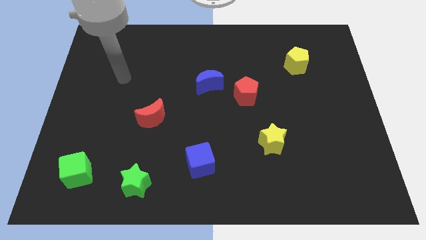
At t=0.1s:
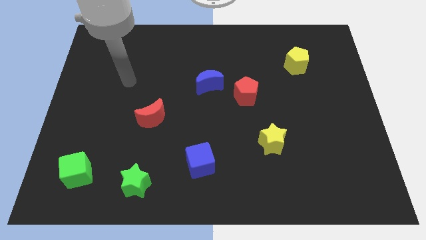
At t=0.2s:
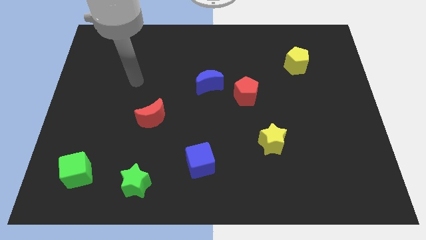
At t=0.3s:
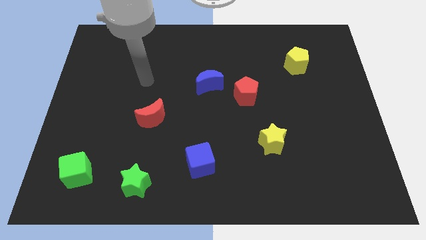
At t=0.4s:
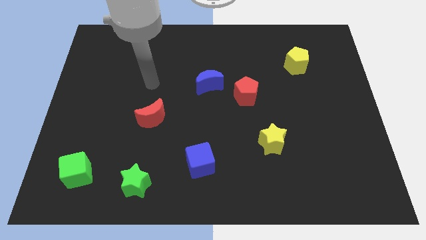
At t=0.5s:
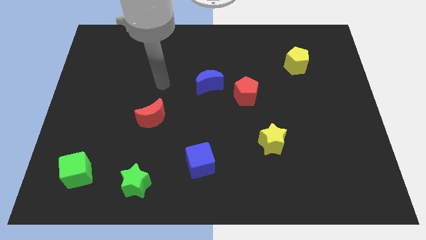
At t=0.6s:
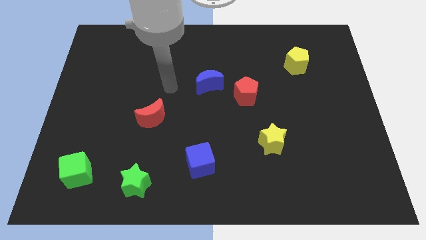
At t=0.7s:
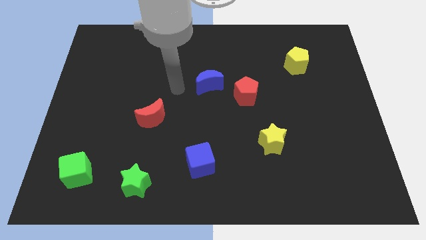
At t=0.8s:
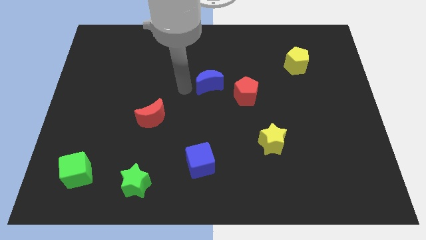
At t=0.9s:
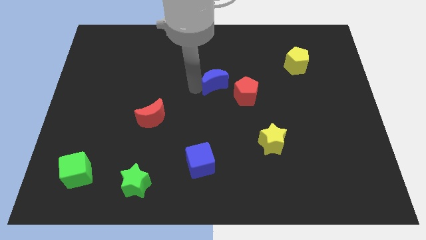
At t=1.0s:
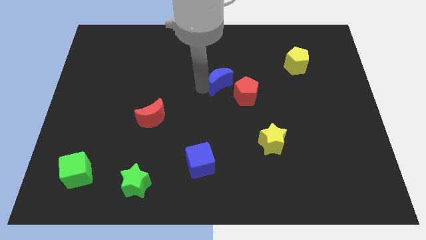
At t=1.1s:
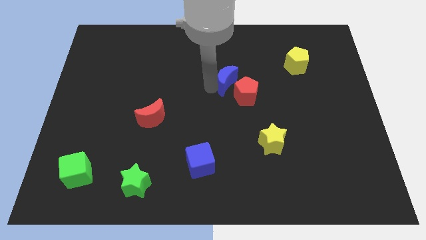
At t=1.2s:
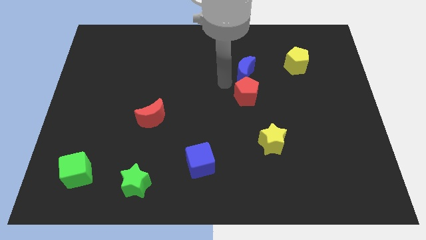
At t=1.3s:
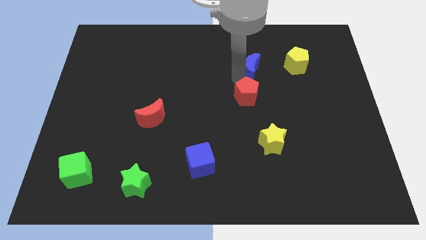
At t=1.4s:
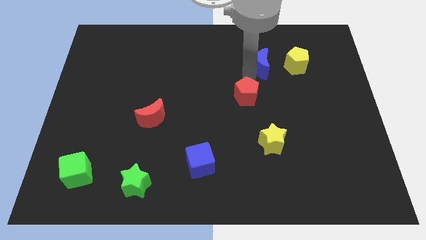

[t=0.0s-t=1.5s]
separate the red pentagon from the blue moon

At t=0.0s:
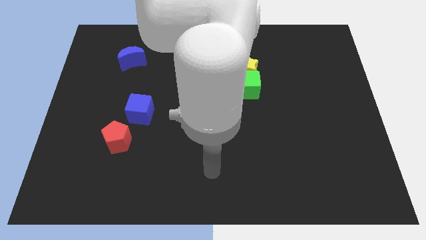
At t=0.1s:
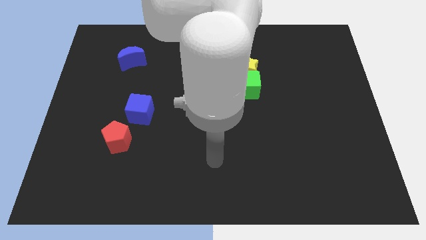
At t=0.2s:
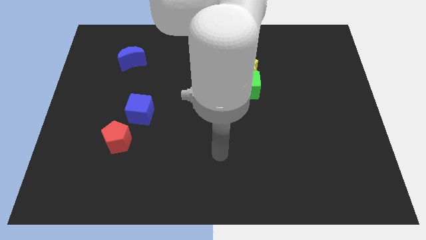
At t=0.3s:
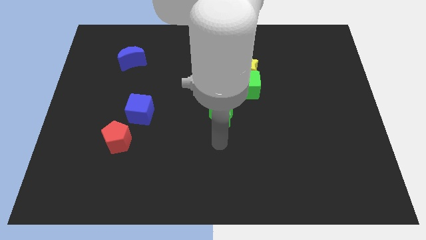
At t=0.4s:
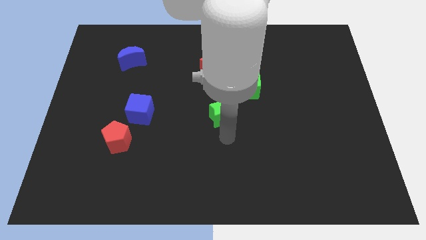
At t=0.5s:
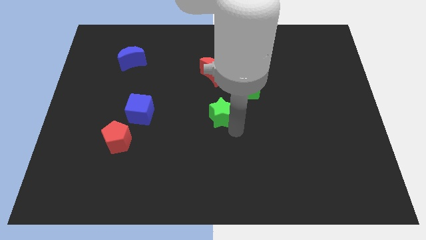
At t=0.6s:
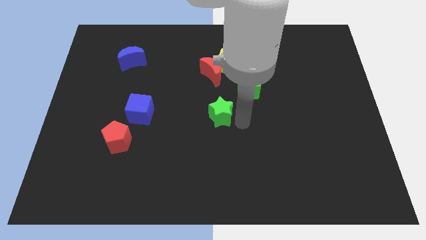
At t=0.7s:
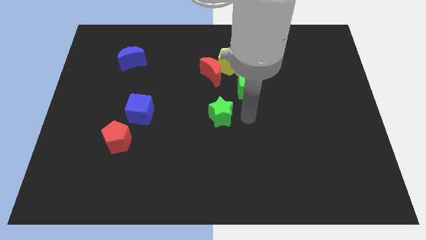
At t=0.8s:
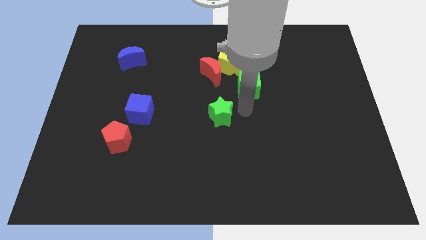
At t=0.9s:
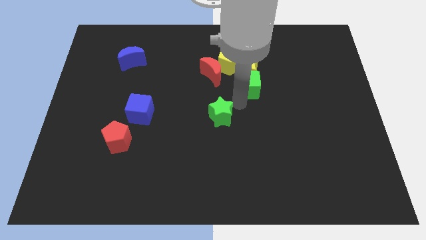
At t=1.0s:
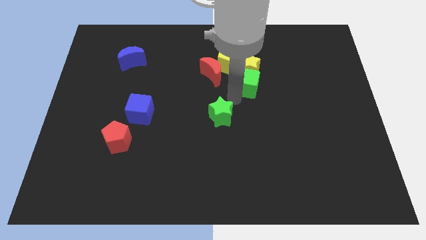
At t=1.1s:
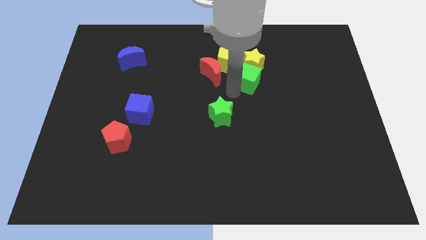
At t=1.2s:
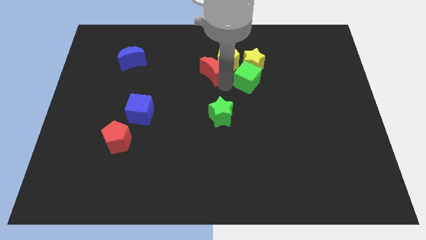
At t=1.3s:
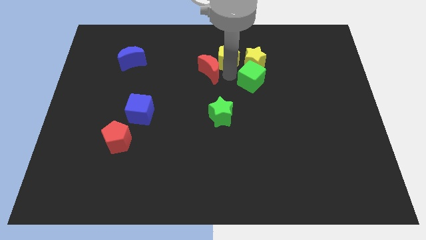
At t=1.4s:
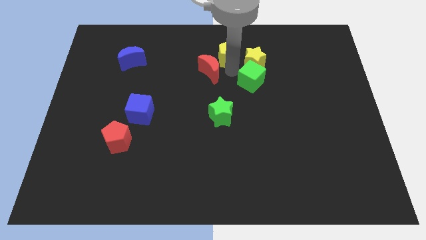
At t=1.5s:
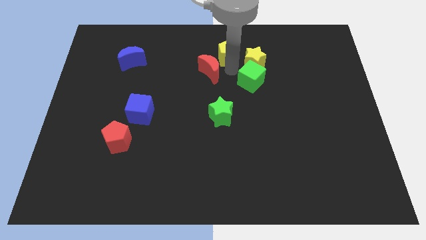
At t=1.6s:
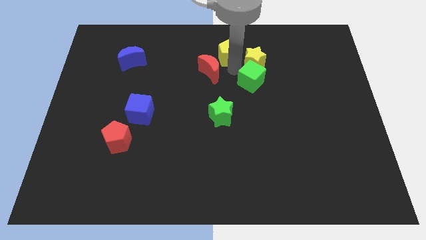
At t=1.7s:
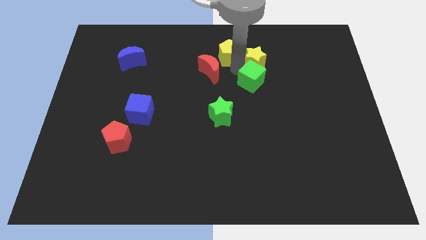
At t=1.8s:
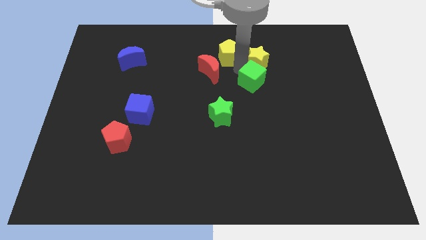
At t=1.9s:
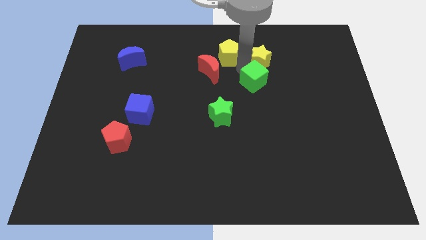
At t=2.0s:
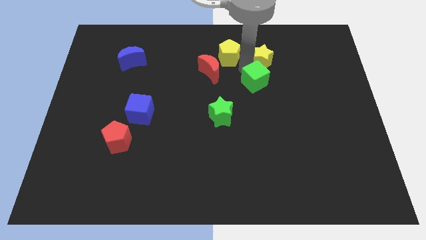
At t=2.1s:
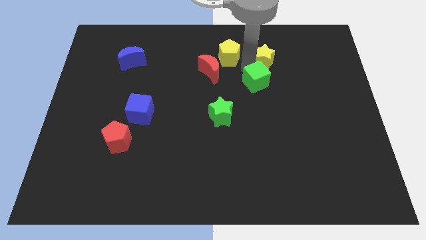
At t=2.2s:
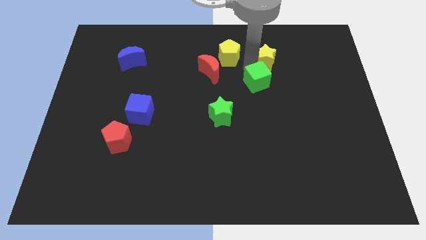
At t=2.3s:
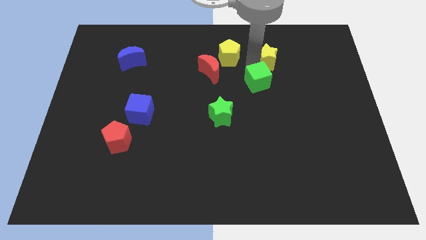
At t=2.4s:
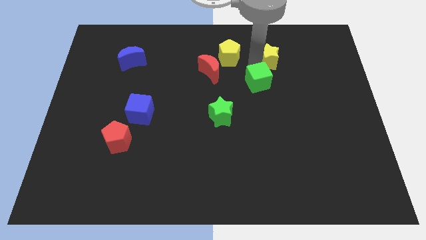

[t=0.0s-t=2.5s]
separate the yellow star from the clump

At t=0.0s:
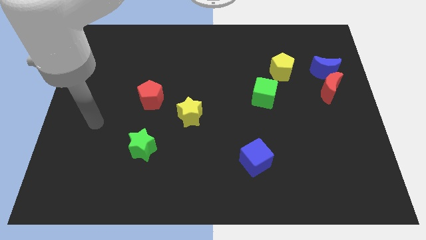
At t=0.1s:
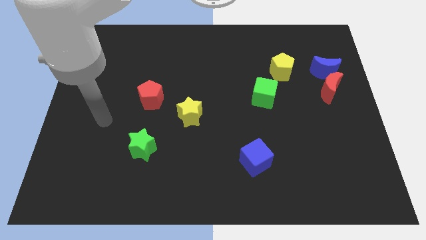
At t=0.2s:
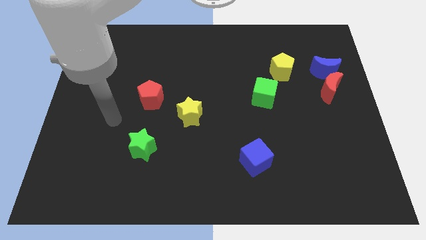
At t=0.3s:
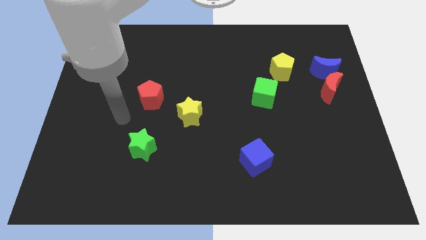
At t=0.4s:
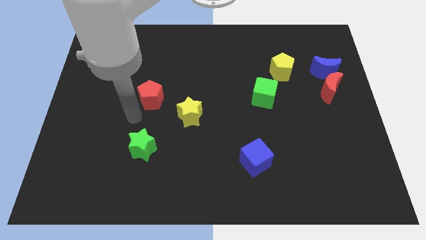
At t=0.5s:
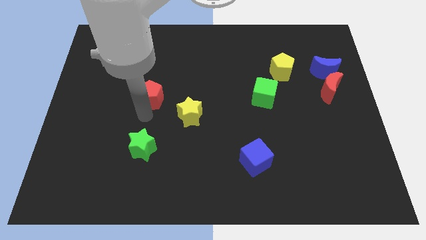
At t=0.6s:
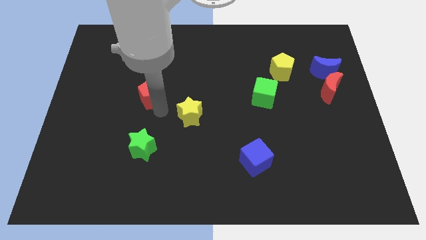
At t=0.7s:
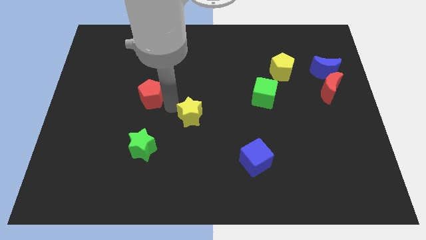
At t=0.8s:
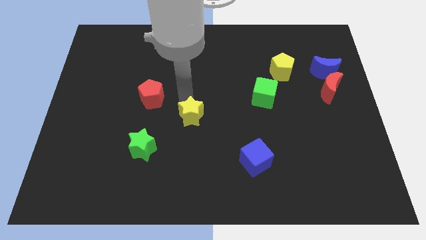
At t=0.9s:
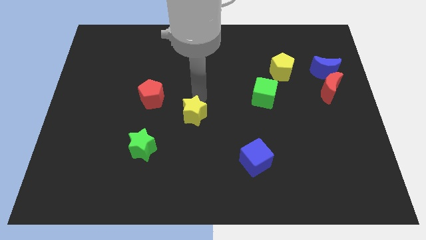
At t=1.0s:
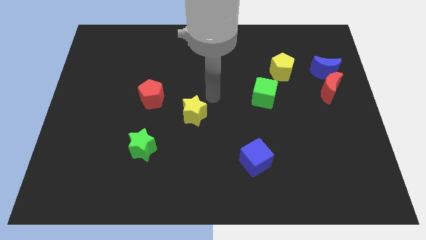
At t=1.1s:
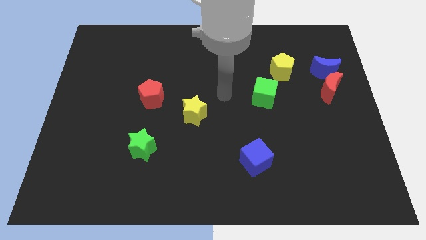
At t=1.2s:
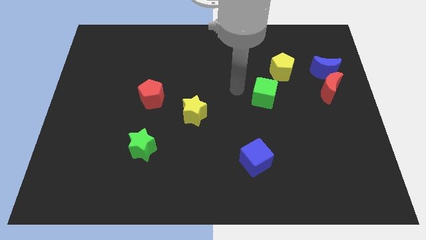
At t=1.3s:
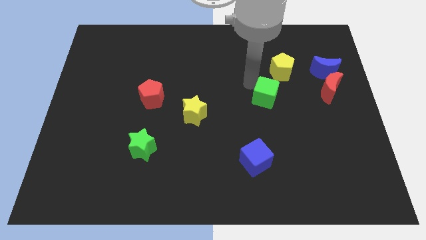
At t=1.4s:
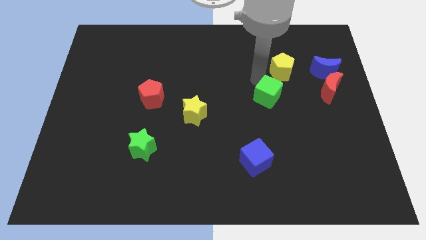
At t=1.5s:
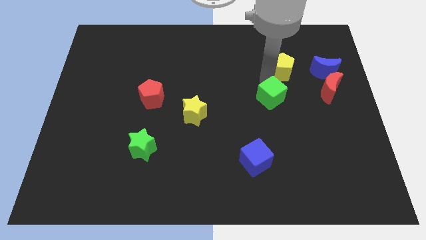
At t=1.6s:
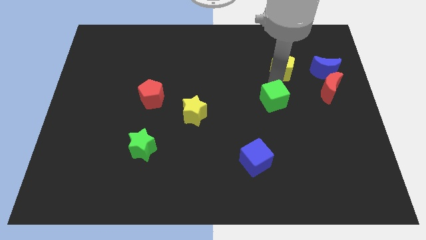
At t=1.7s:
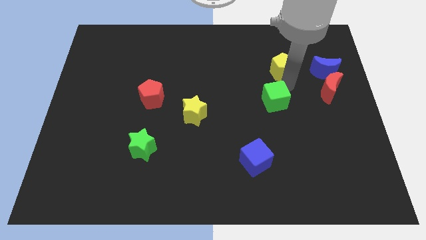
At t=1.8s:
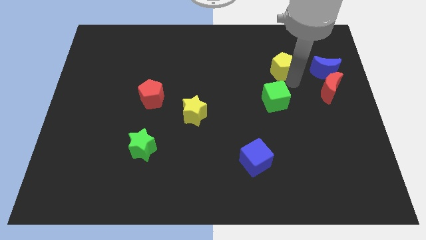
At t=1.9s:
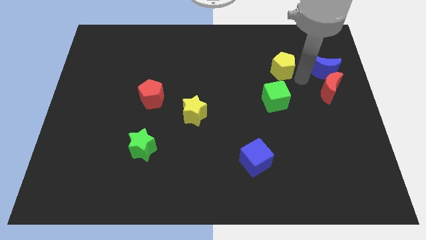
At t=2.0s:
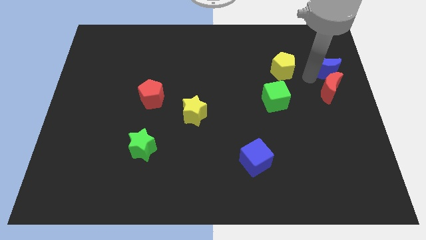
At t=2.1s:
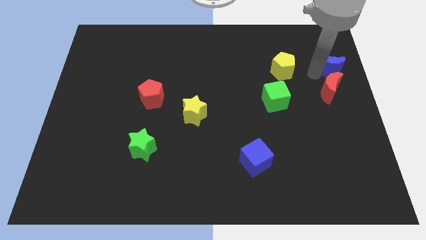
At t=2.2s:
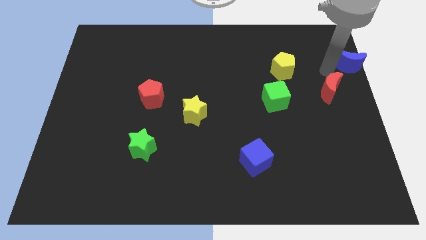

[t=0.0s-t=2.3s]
pull the red moon apart from the blue moon

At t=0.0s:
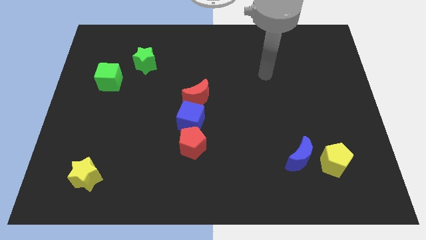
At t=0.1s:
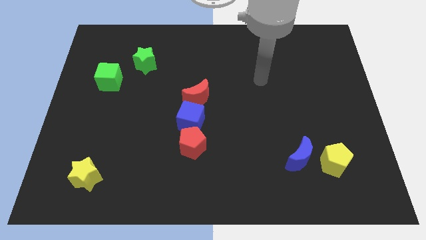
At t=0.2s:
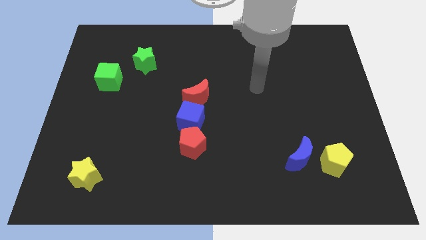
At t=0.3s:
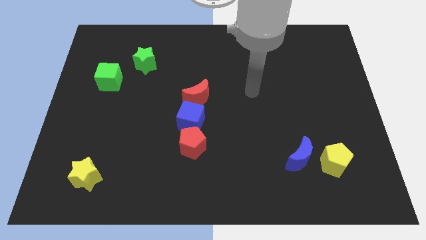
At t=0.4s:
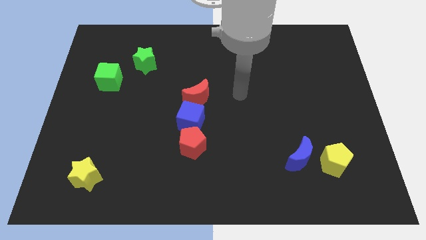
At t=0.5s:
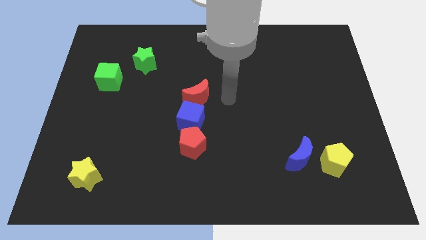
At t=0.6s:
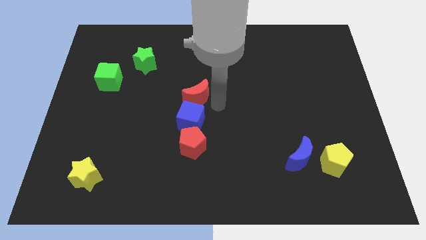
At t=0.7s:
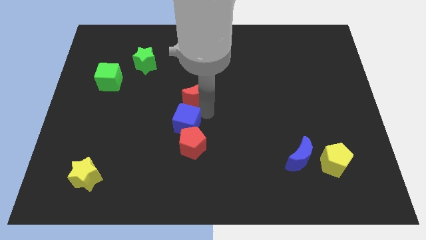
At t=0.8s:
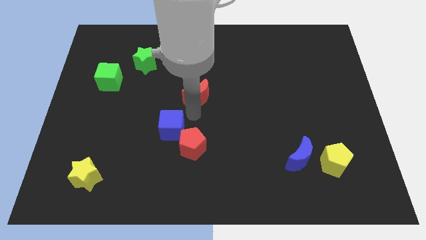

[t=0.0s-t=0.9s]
pull the red moon apart from the blue cube

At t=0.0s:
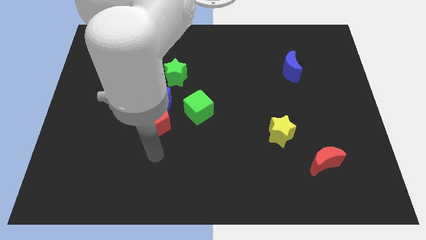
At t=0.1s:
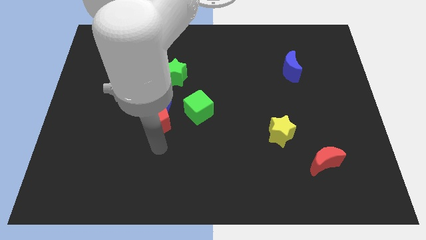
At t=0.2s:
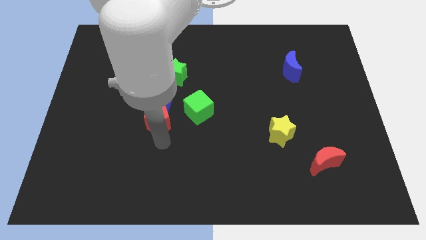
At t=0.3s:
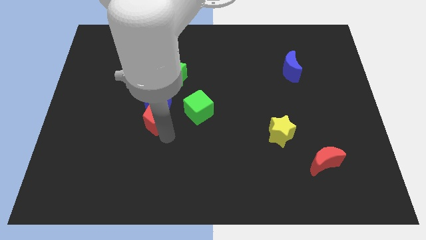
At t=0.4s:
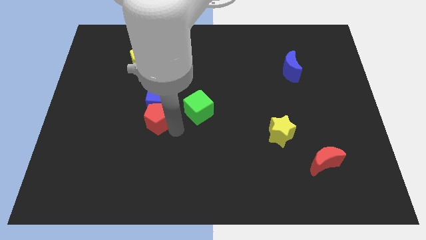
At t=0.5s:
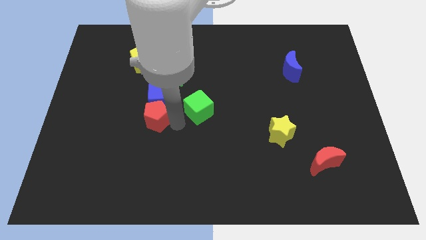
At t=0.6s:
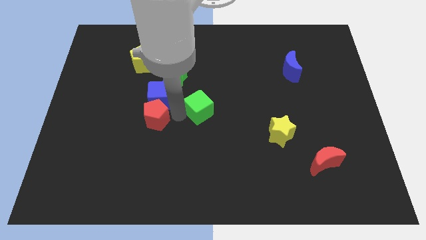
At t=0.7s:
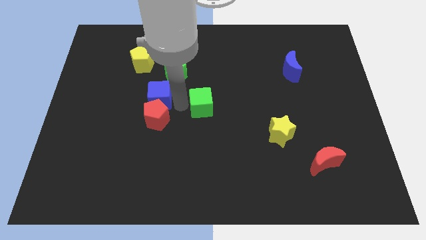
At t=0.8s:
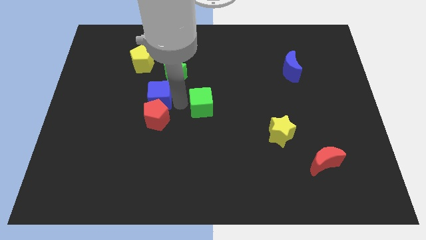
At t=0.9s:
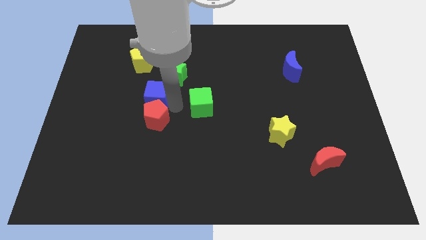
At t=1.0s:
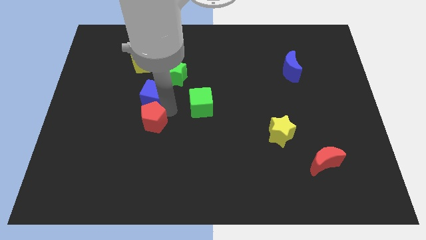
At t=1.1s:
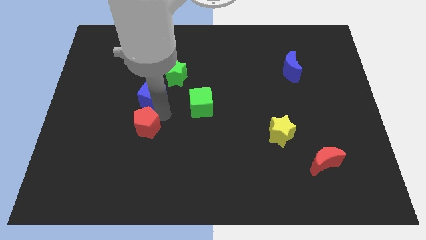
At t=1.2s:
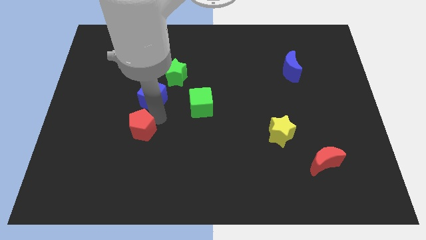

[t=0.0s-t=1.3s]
separate the red pentagon from the blue cube and green cube

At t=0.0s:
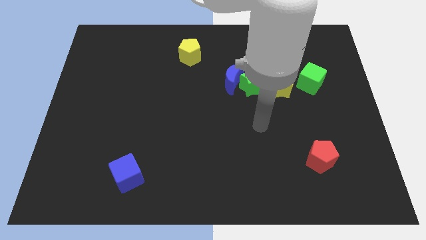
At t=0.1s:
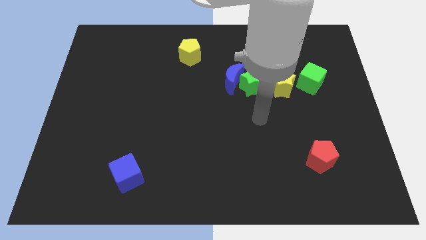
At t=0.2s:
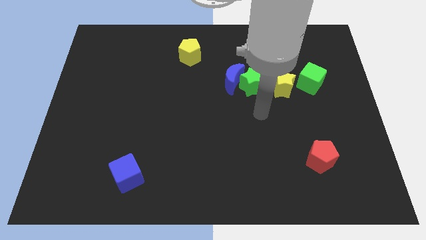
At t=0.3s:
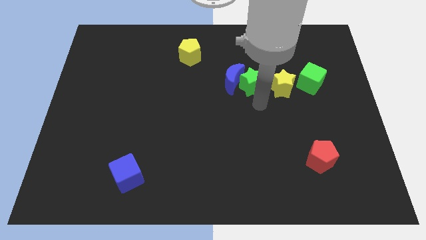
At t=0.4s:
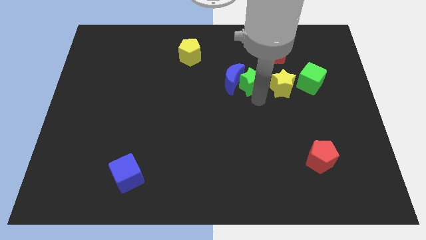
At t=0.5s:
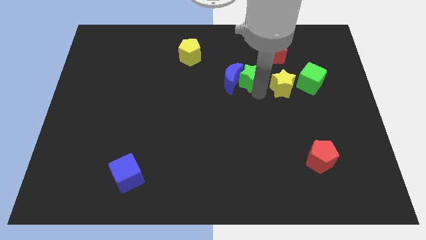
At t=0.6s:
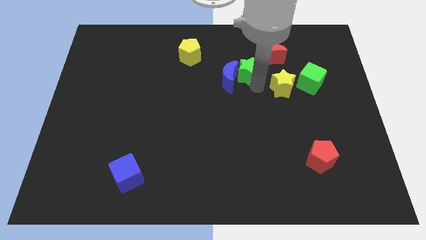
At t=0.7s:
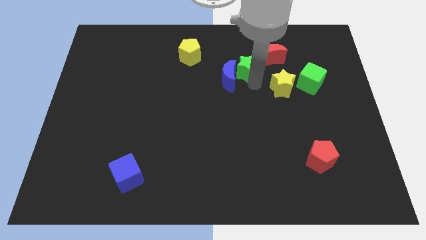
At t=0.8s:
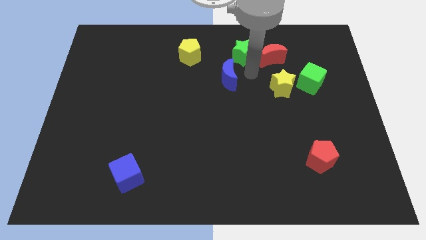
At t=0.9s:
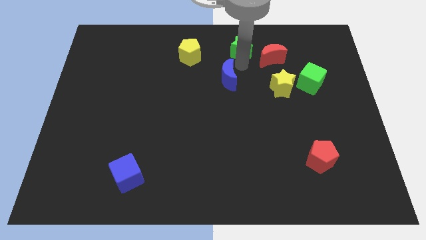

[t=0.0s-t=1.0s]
separate the blue moon from the green star
